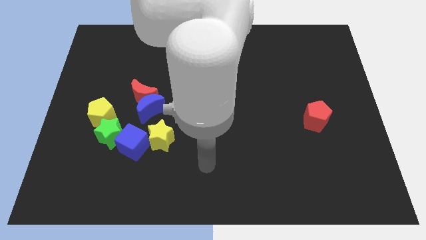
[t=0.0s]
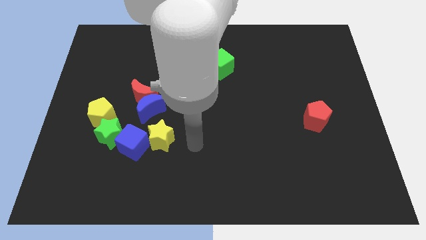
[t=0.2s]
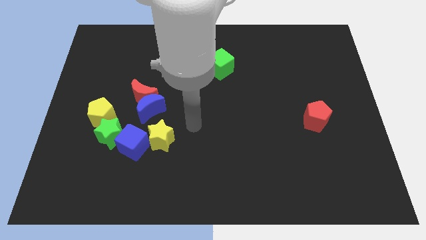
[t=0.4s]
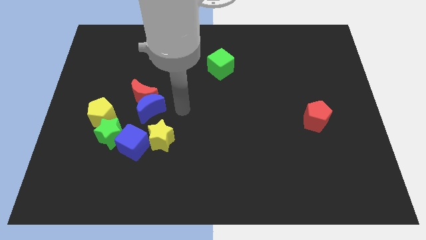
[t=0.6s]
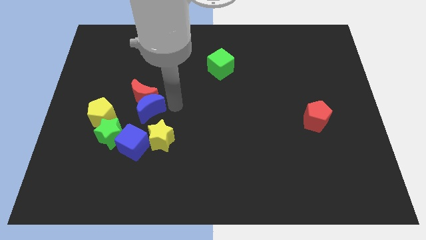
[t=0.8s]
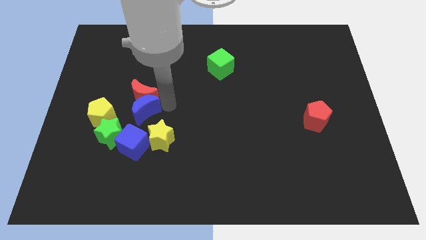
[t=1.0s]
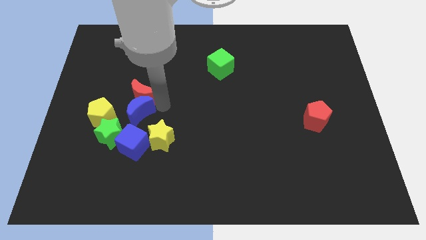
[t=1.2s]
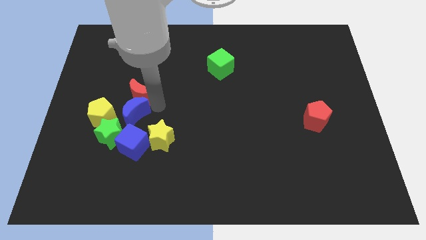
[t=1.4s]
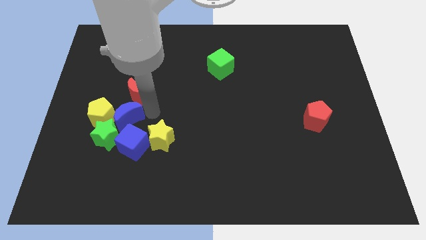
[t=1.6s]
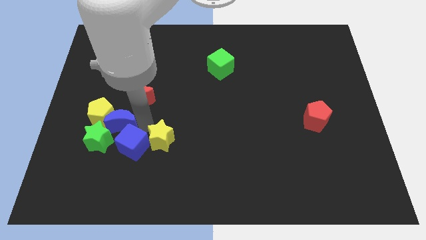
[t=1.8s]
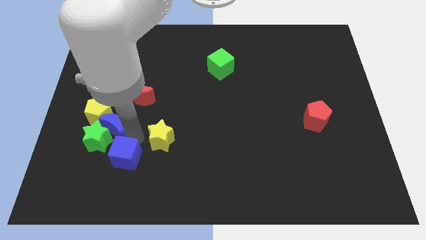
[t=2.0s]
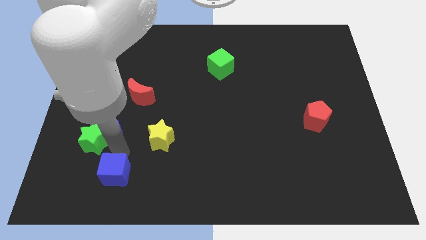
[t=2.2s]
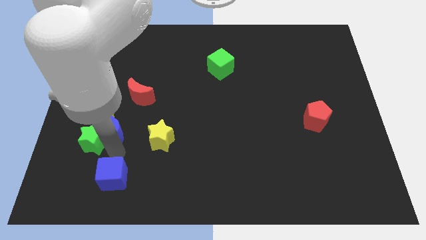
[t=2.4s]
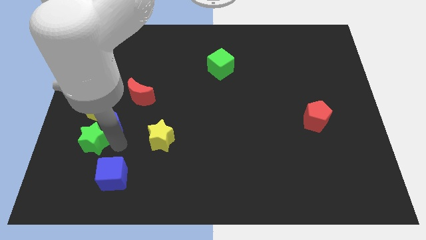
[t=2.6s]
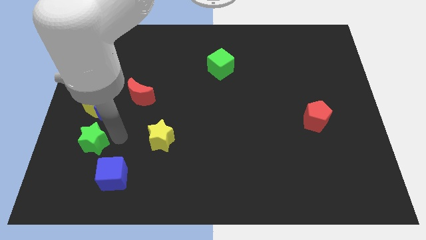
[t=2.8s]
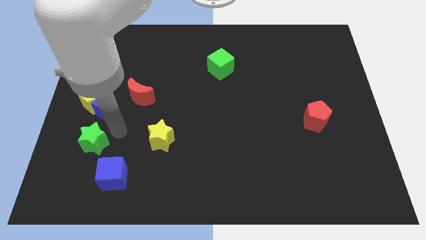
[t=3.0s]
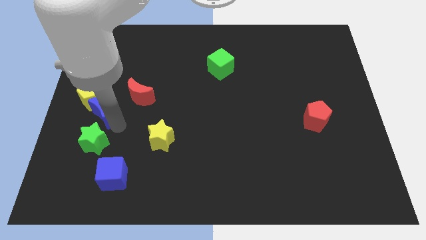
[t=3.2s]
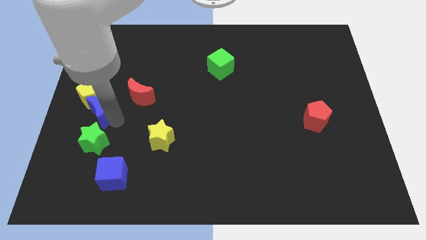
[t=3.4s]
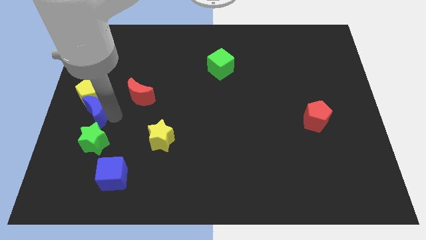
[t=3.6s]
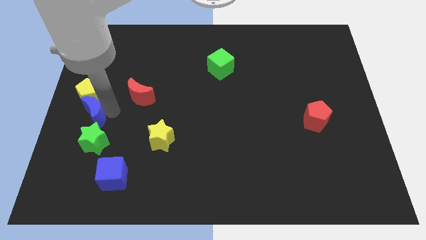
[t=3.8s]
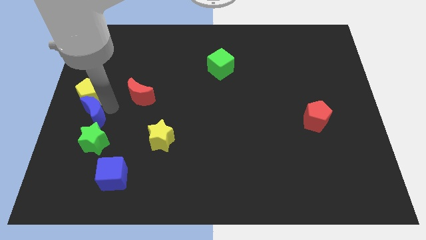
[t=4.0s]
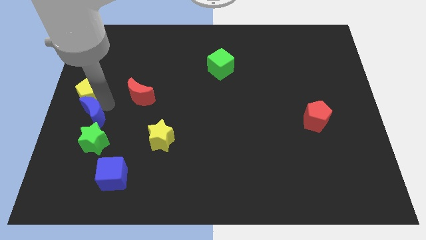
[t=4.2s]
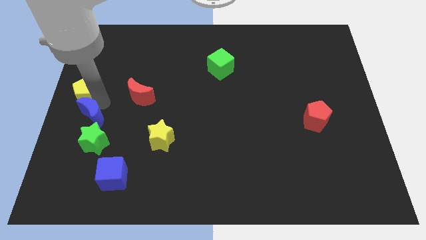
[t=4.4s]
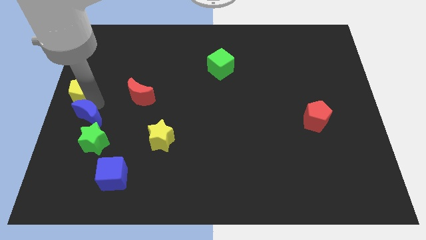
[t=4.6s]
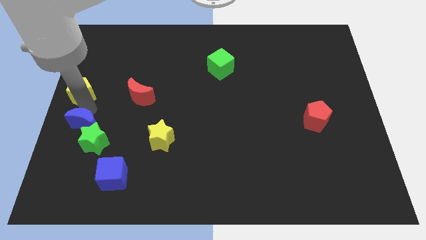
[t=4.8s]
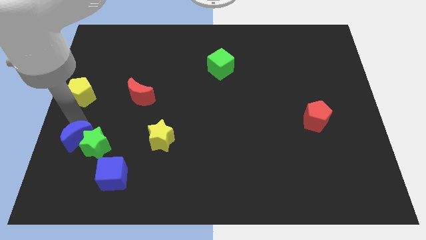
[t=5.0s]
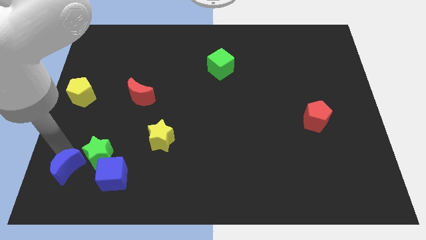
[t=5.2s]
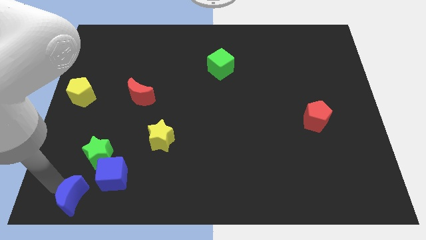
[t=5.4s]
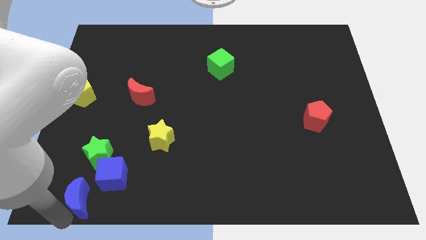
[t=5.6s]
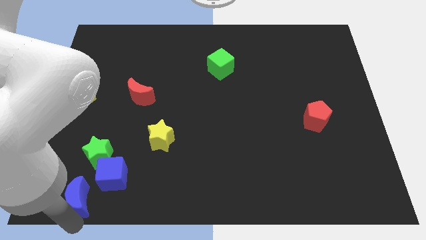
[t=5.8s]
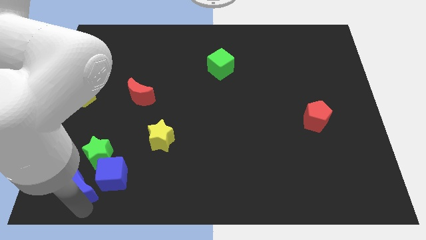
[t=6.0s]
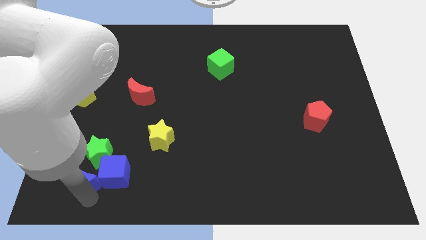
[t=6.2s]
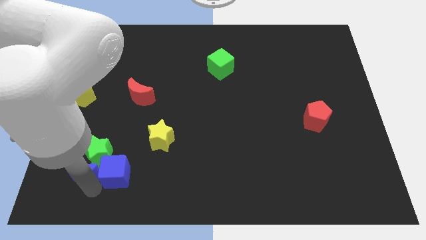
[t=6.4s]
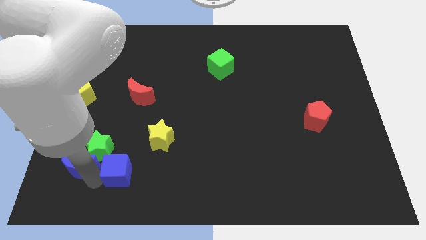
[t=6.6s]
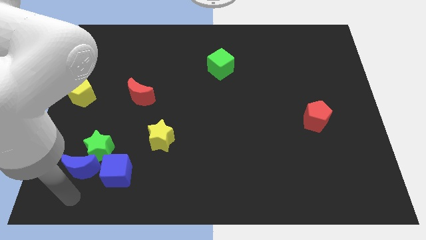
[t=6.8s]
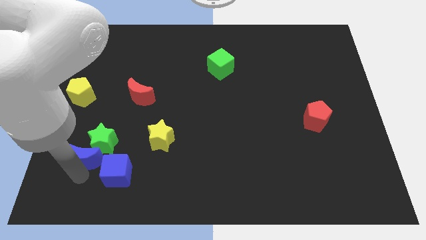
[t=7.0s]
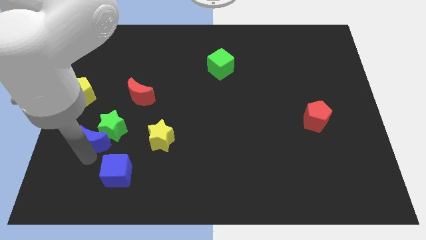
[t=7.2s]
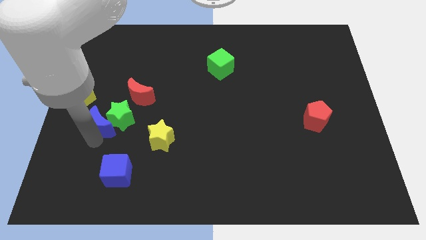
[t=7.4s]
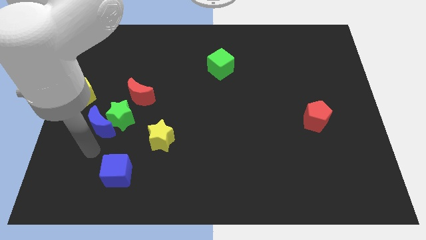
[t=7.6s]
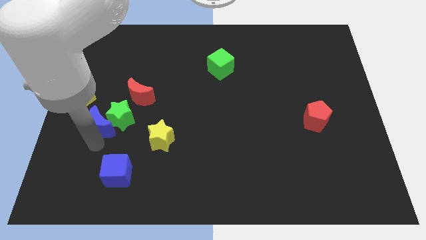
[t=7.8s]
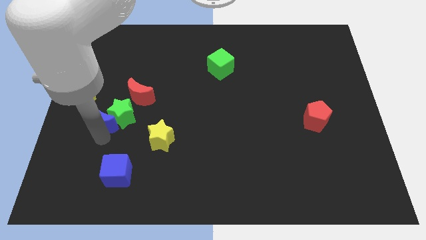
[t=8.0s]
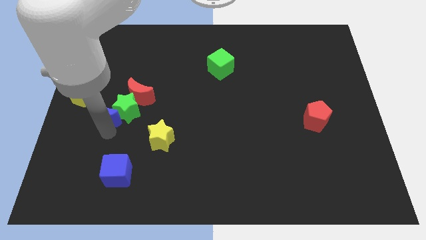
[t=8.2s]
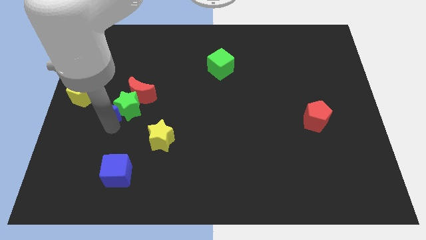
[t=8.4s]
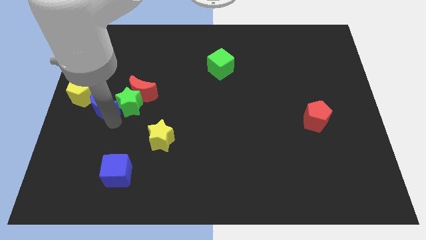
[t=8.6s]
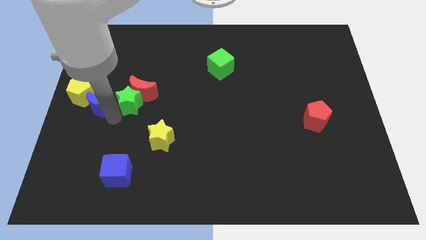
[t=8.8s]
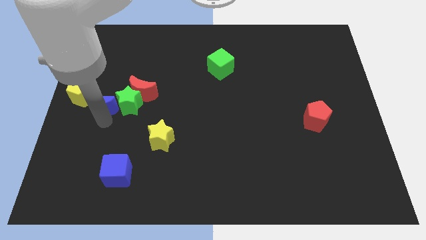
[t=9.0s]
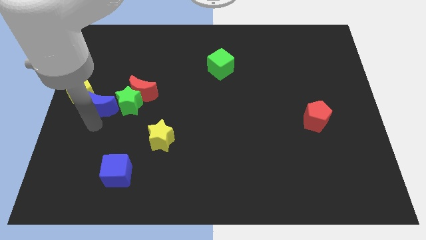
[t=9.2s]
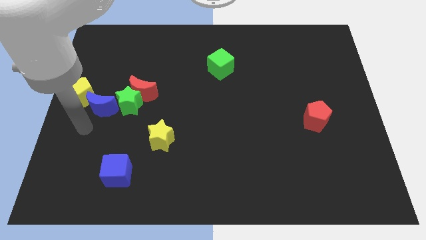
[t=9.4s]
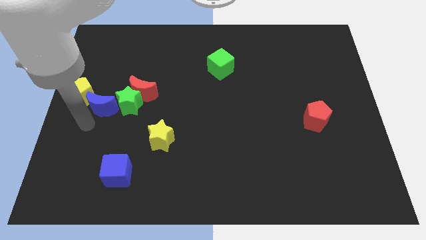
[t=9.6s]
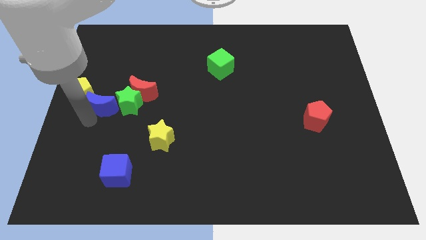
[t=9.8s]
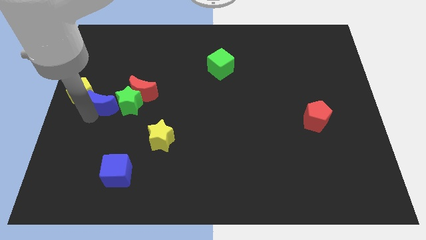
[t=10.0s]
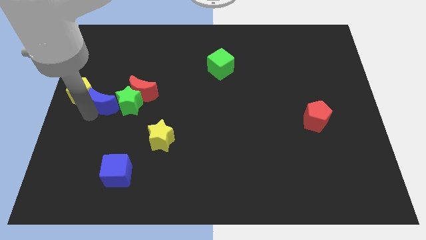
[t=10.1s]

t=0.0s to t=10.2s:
slightly move the blue moon diagonally upwards and to the left

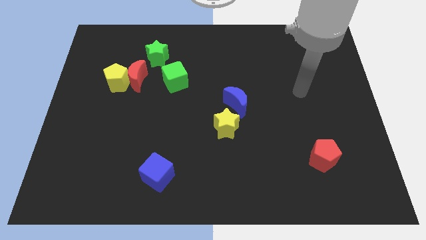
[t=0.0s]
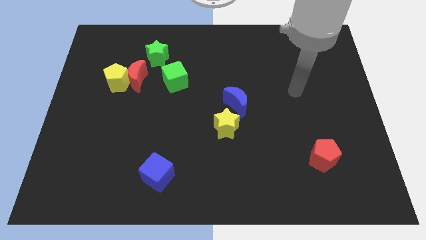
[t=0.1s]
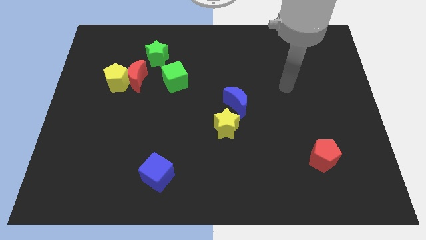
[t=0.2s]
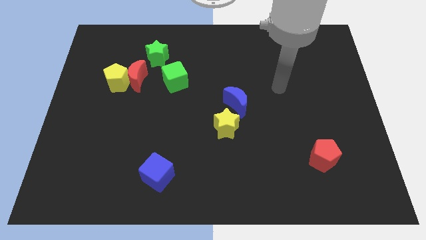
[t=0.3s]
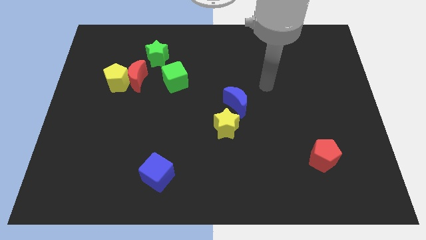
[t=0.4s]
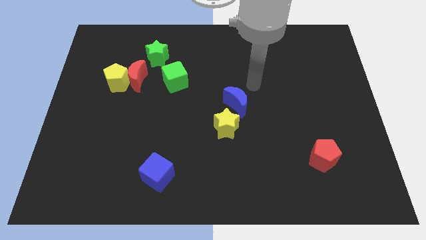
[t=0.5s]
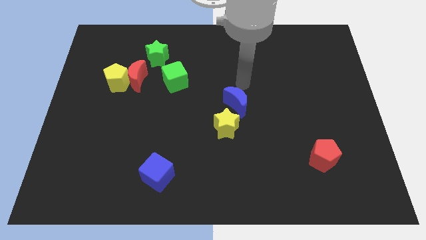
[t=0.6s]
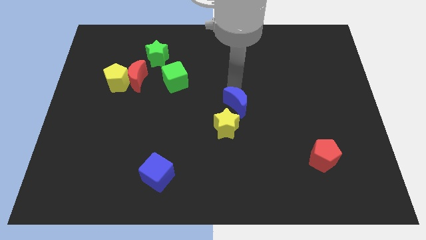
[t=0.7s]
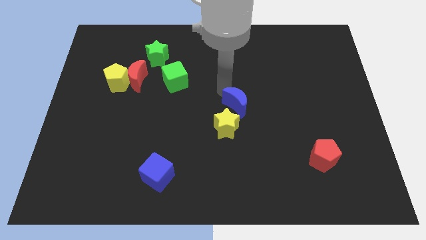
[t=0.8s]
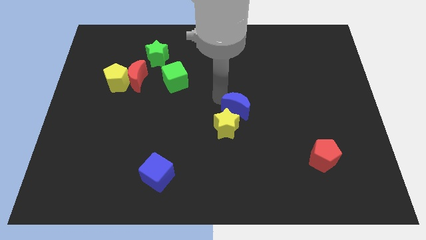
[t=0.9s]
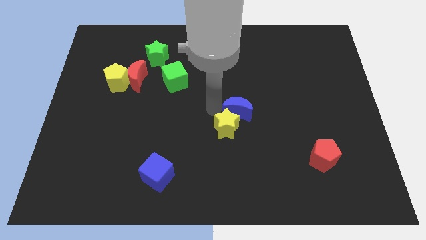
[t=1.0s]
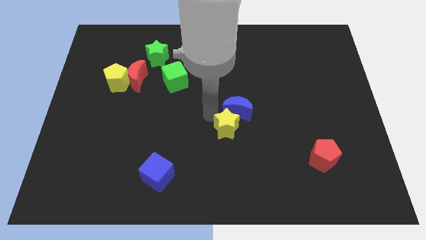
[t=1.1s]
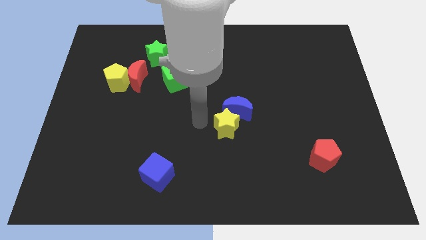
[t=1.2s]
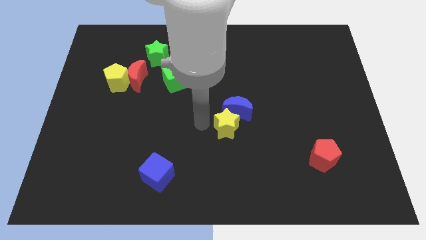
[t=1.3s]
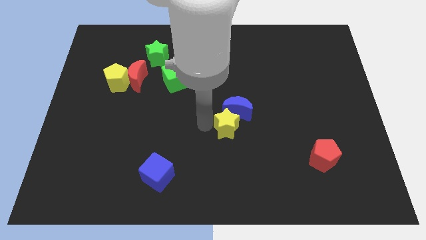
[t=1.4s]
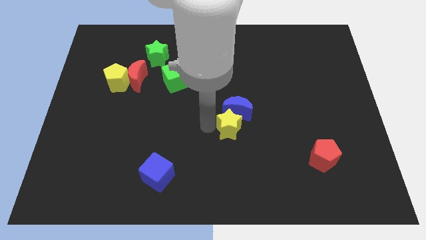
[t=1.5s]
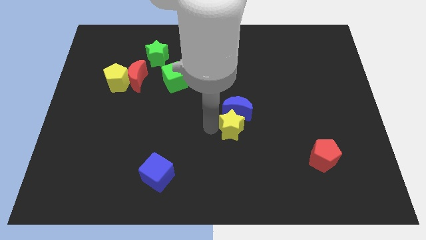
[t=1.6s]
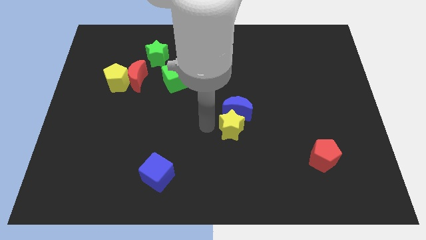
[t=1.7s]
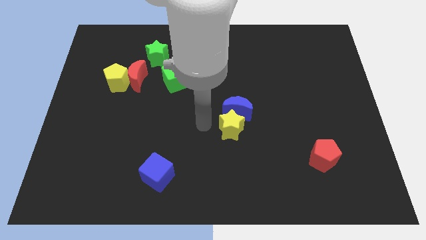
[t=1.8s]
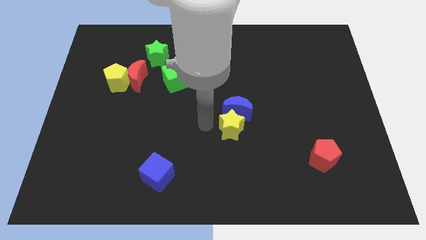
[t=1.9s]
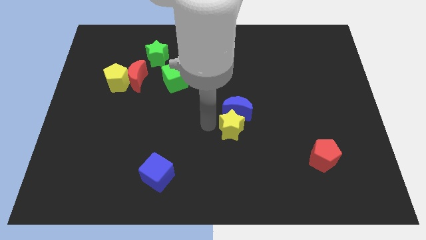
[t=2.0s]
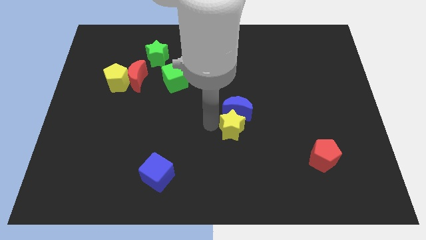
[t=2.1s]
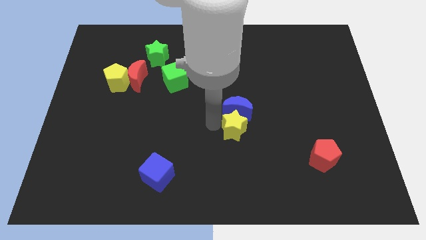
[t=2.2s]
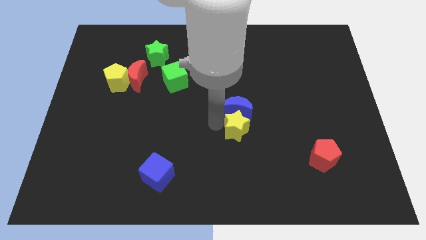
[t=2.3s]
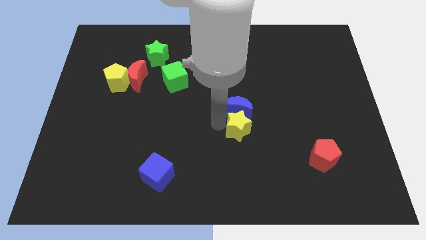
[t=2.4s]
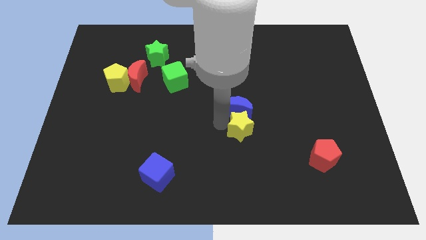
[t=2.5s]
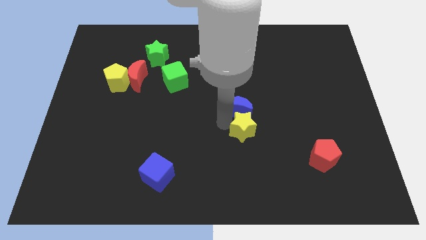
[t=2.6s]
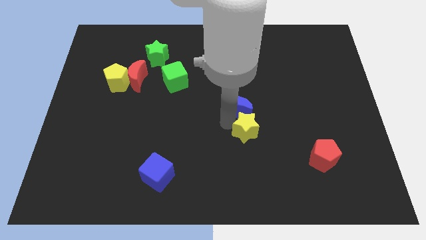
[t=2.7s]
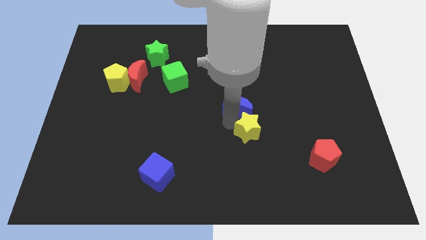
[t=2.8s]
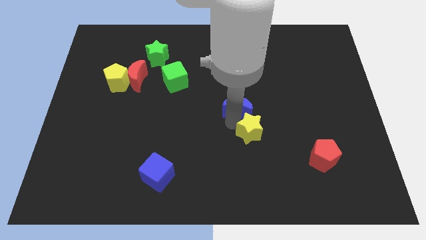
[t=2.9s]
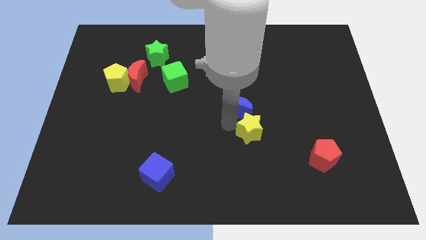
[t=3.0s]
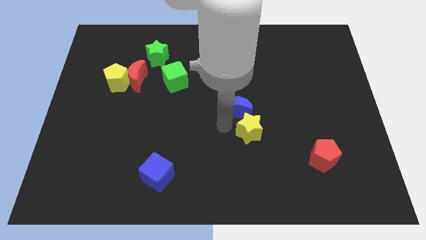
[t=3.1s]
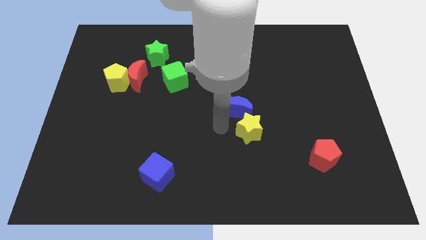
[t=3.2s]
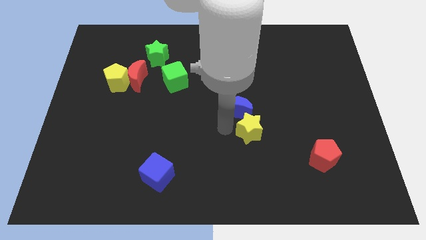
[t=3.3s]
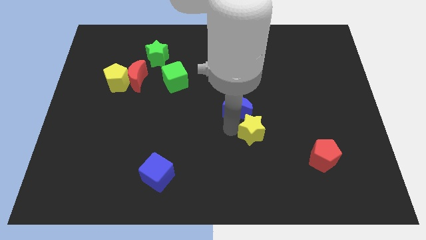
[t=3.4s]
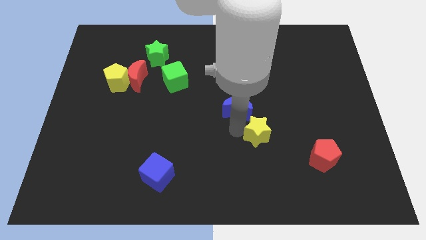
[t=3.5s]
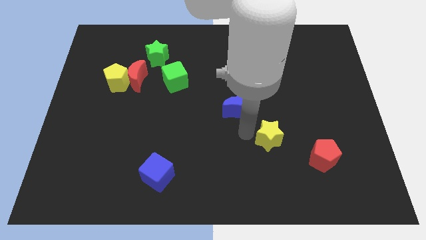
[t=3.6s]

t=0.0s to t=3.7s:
push the yellow star right a little
